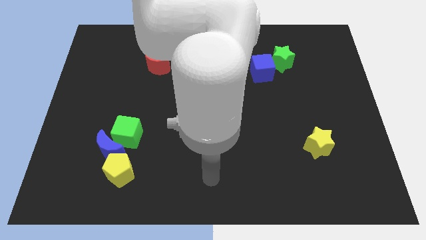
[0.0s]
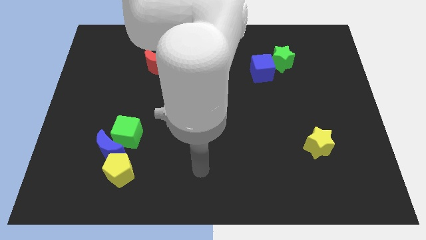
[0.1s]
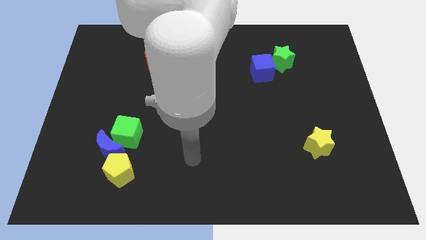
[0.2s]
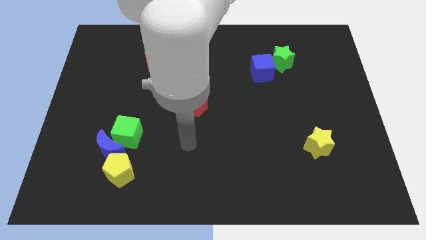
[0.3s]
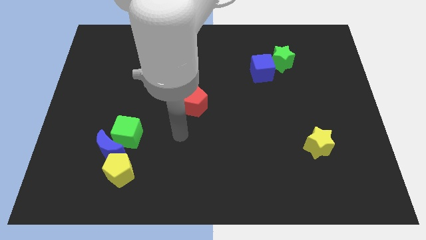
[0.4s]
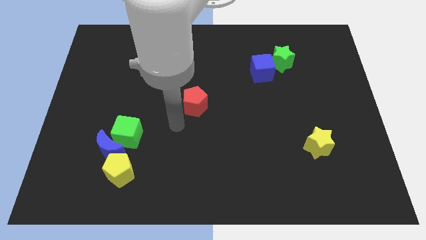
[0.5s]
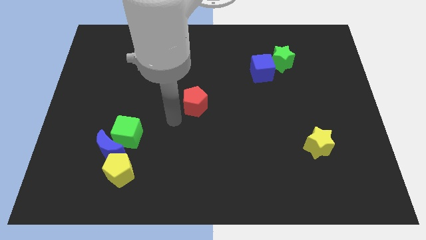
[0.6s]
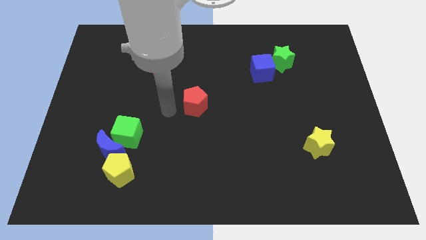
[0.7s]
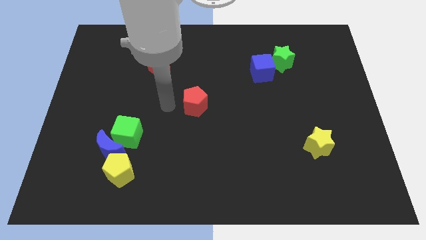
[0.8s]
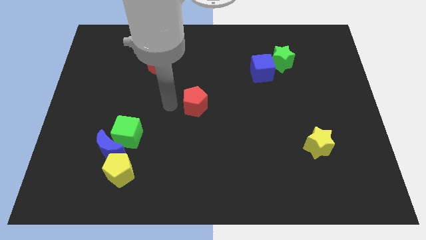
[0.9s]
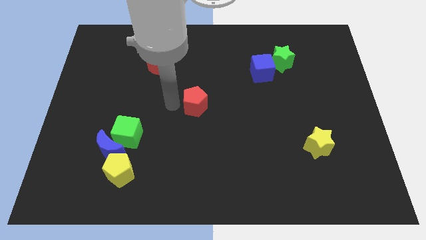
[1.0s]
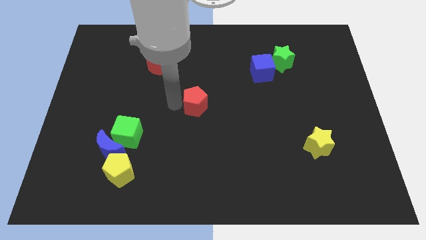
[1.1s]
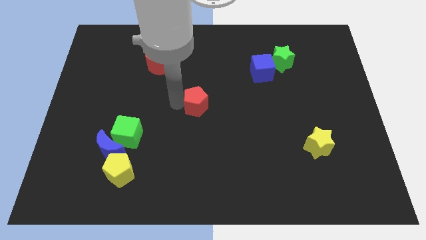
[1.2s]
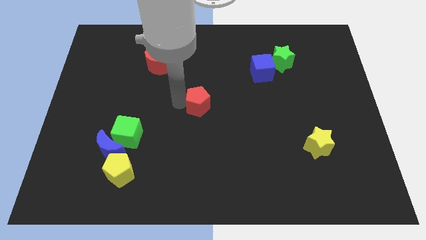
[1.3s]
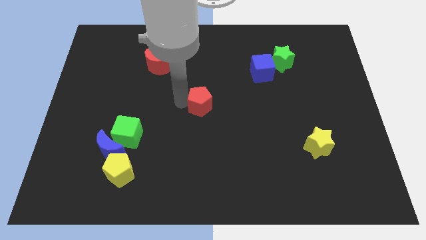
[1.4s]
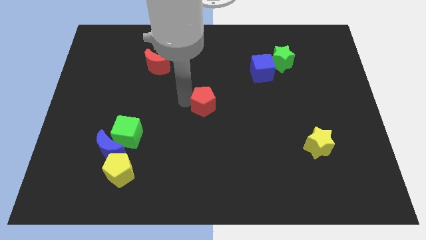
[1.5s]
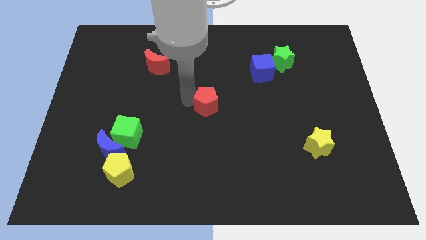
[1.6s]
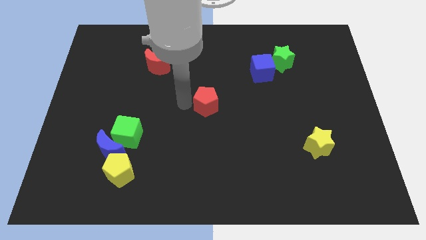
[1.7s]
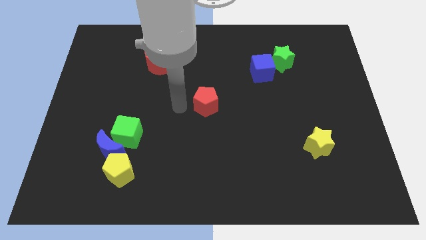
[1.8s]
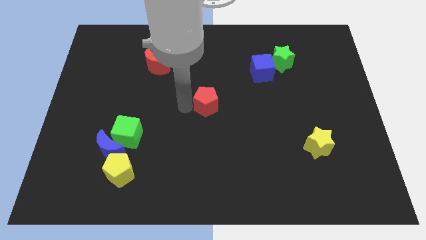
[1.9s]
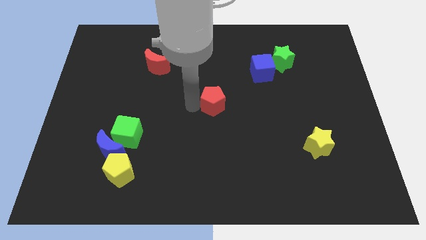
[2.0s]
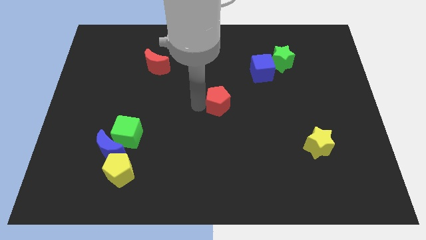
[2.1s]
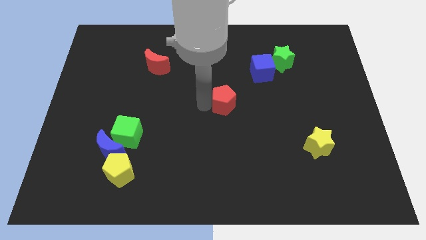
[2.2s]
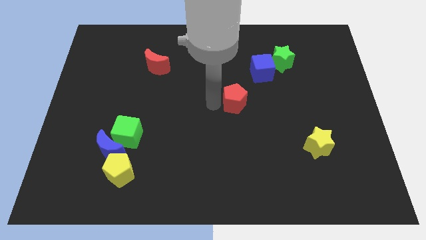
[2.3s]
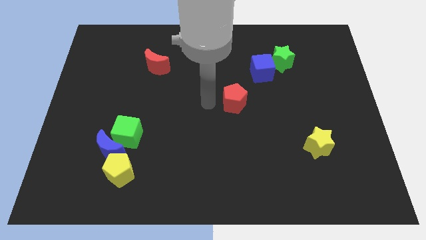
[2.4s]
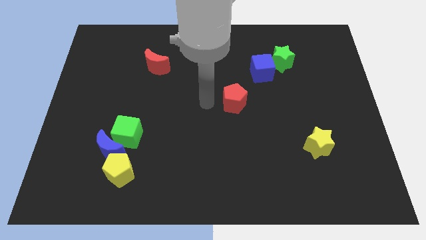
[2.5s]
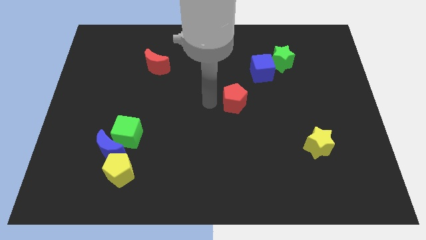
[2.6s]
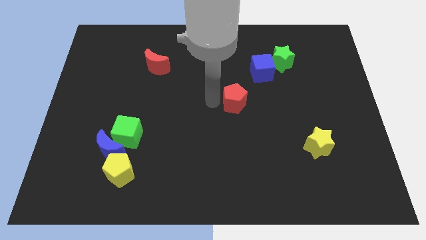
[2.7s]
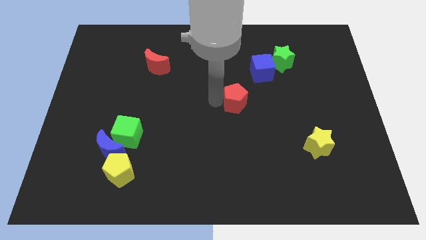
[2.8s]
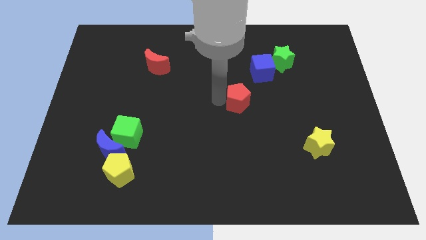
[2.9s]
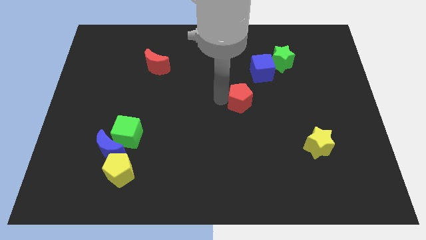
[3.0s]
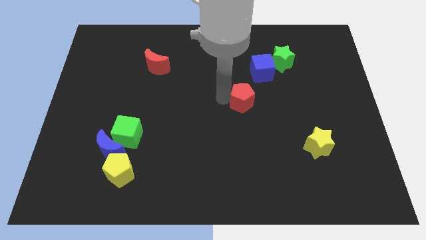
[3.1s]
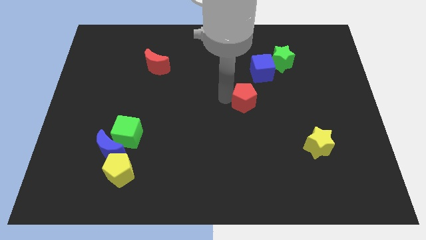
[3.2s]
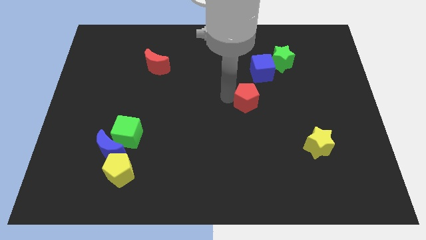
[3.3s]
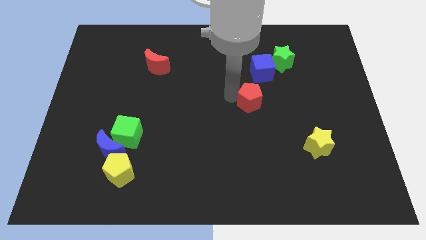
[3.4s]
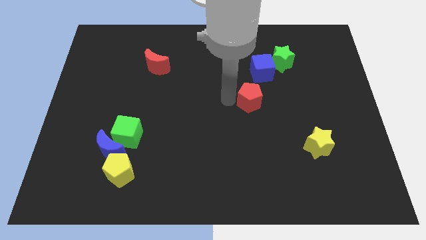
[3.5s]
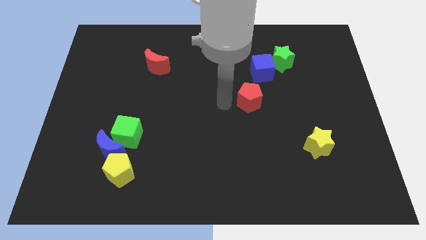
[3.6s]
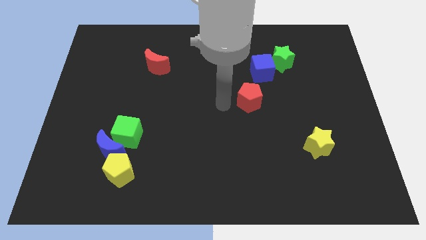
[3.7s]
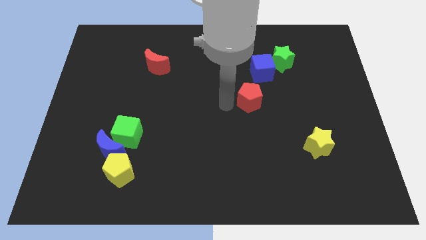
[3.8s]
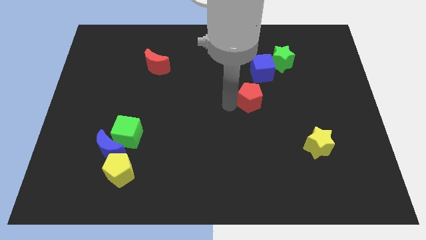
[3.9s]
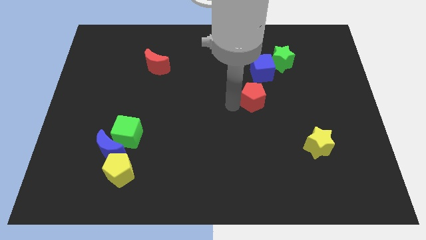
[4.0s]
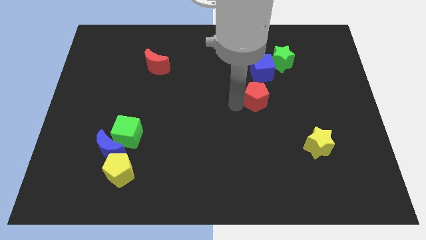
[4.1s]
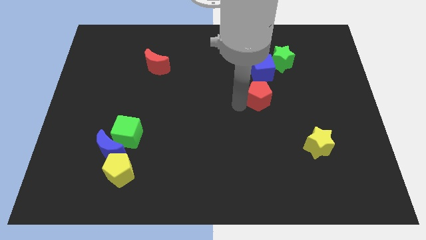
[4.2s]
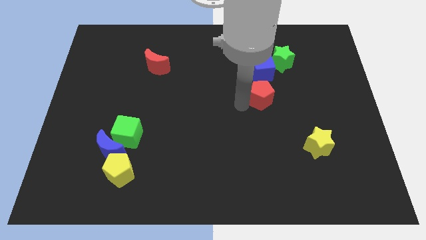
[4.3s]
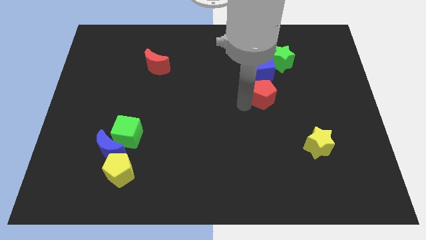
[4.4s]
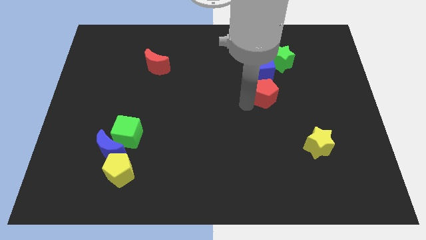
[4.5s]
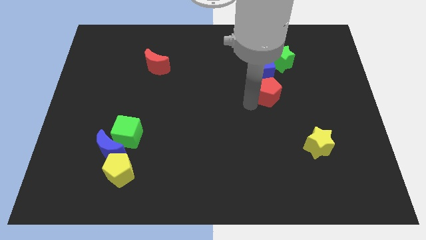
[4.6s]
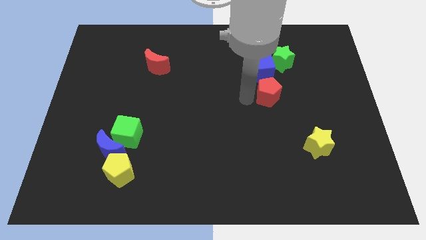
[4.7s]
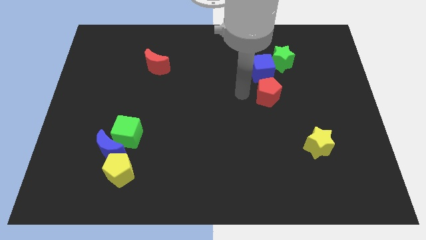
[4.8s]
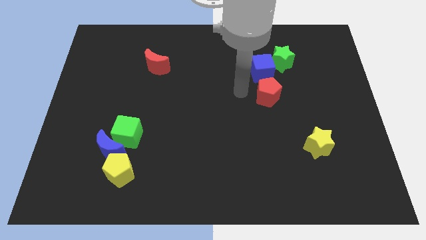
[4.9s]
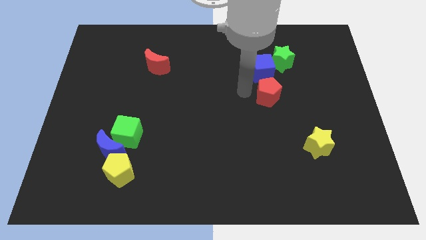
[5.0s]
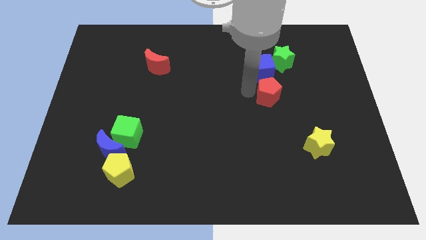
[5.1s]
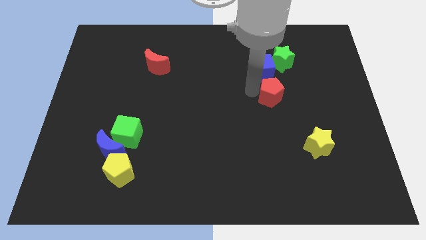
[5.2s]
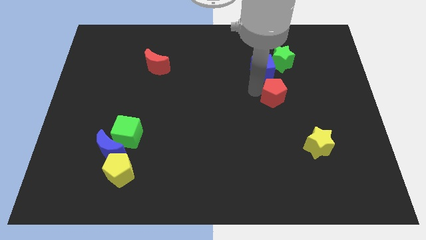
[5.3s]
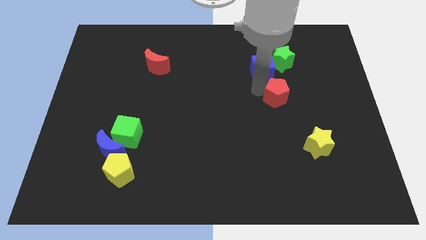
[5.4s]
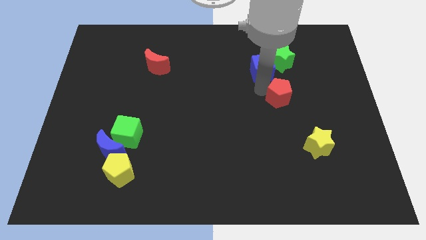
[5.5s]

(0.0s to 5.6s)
push the red pentagon to the right

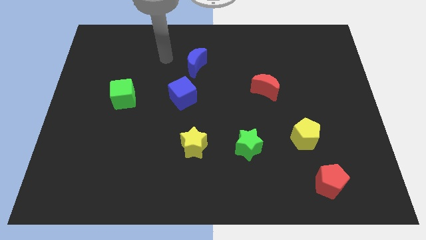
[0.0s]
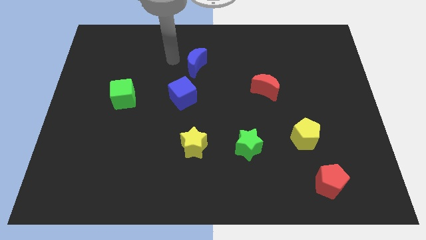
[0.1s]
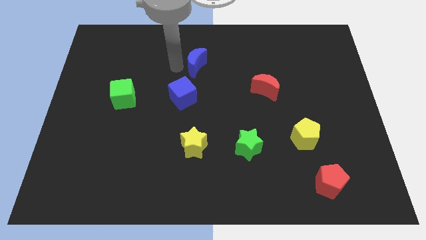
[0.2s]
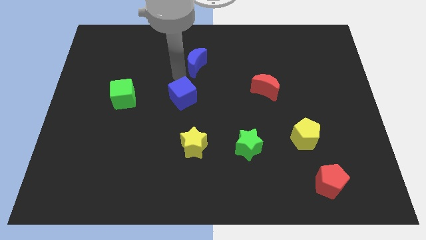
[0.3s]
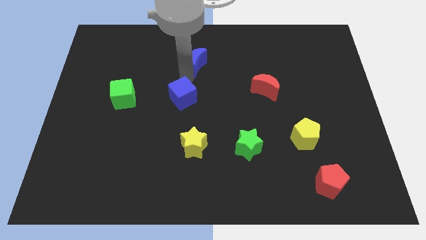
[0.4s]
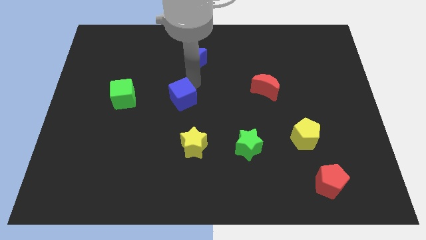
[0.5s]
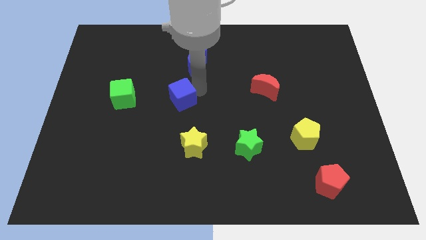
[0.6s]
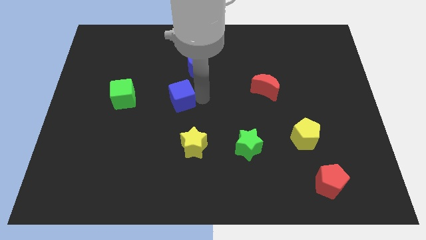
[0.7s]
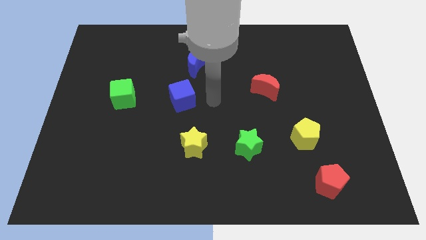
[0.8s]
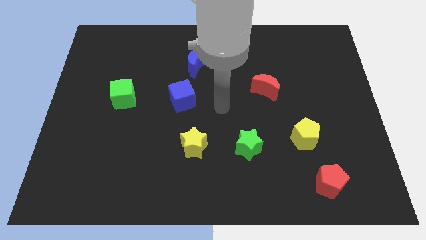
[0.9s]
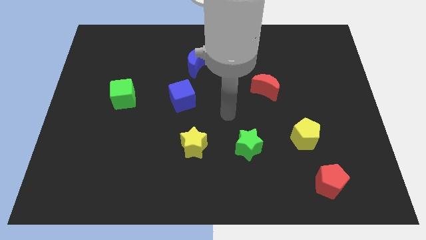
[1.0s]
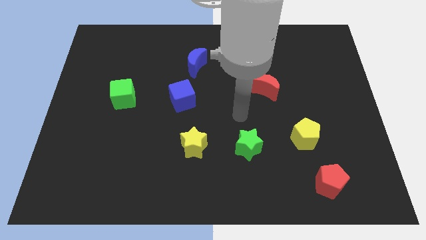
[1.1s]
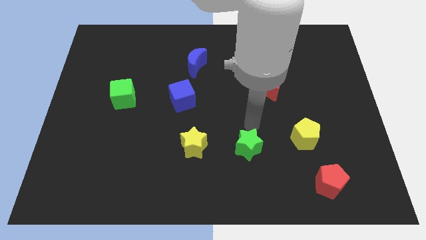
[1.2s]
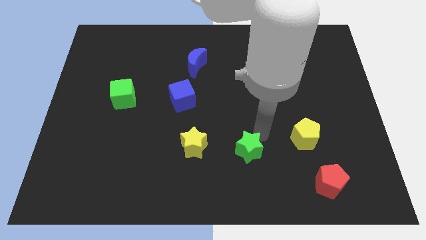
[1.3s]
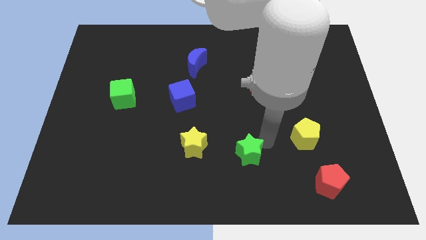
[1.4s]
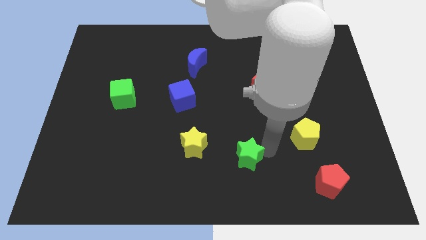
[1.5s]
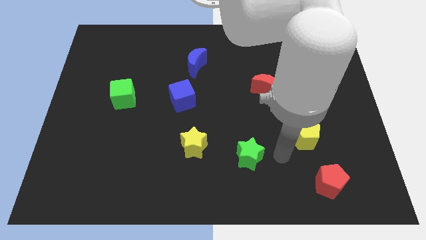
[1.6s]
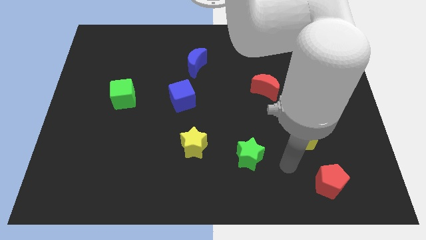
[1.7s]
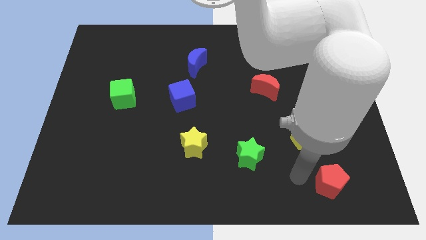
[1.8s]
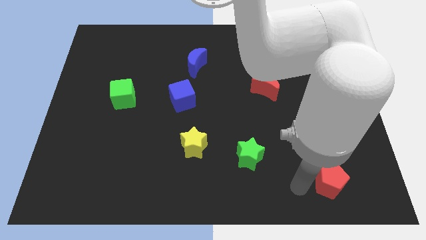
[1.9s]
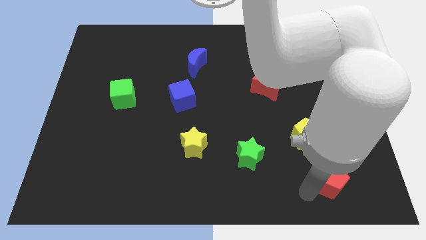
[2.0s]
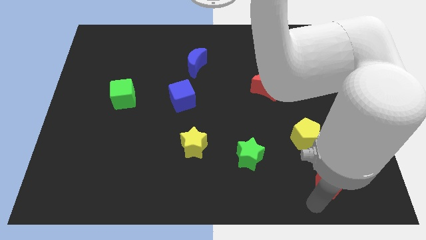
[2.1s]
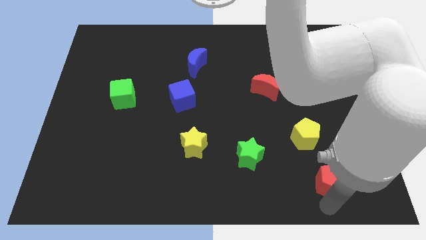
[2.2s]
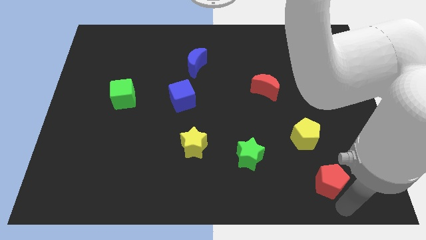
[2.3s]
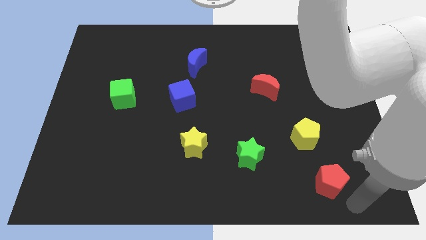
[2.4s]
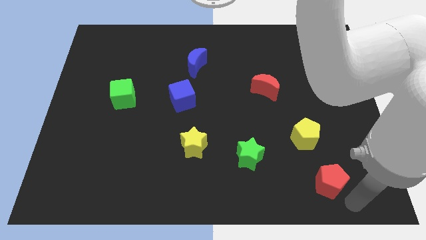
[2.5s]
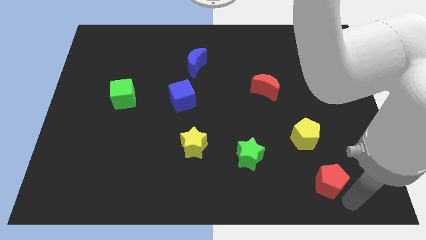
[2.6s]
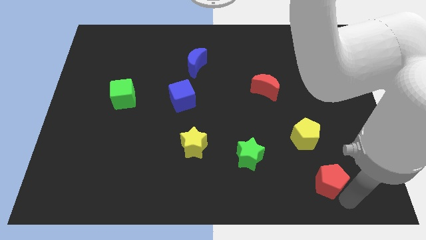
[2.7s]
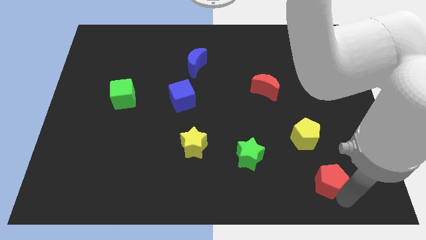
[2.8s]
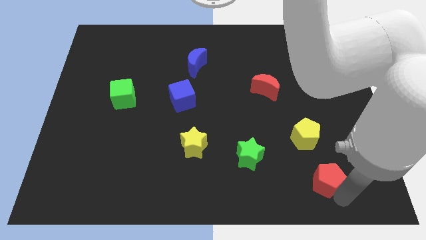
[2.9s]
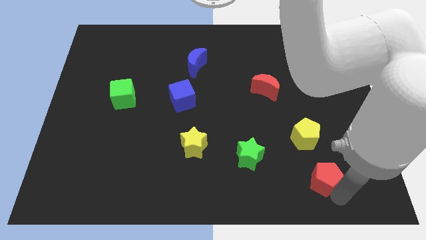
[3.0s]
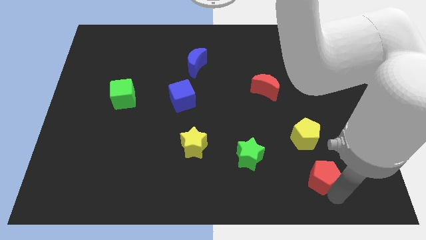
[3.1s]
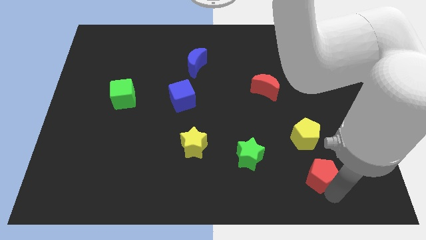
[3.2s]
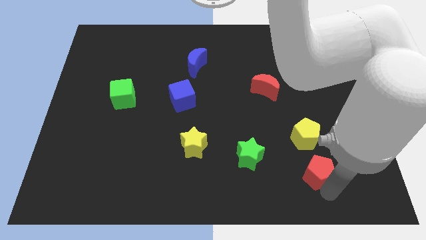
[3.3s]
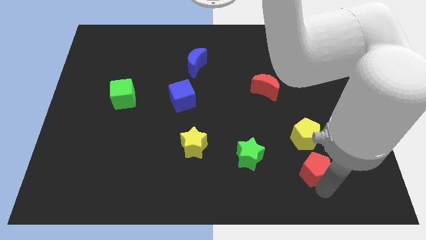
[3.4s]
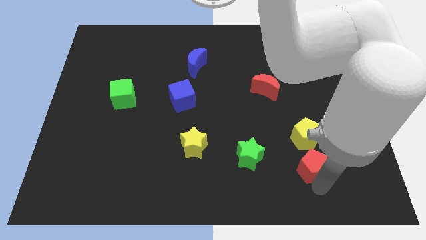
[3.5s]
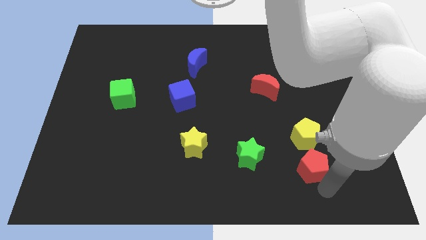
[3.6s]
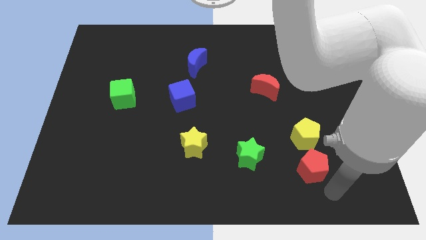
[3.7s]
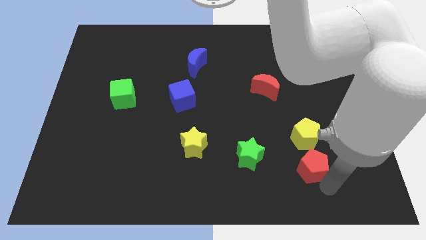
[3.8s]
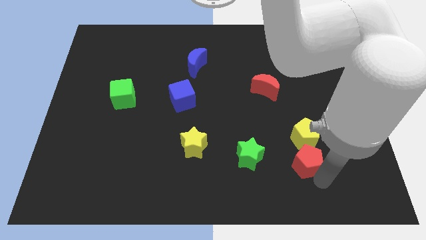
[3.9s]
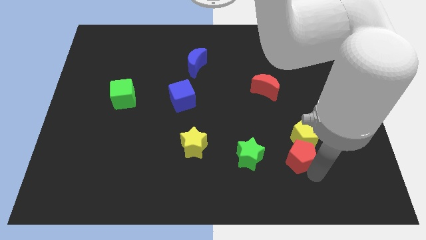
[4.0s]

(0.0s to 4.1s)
move the red pentagon slightly up and then to the left
